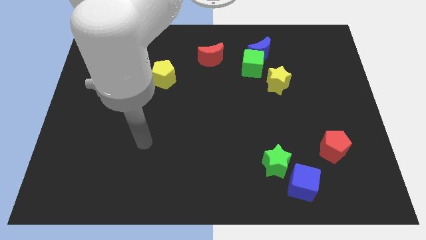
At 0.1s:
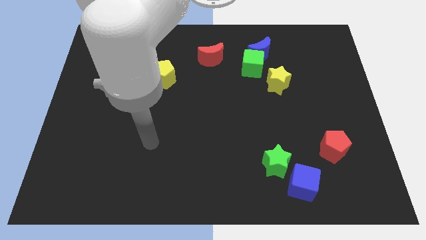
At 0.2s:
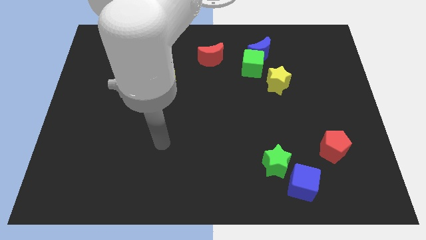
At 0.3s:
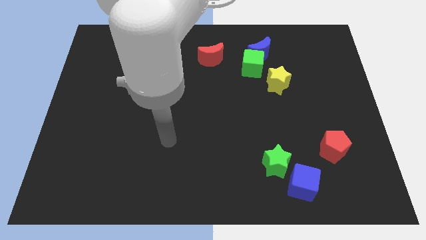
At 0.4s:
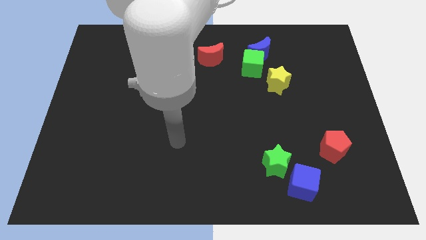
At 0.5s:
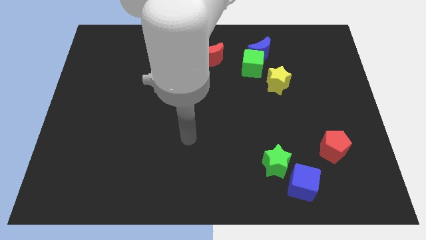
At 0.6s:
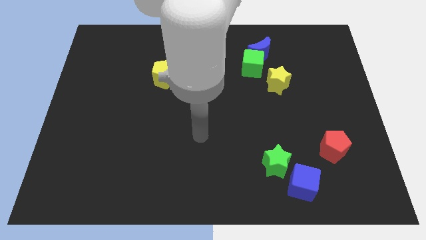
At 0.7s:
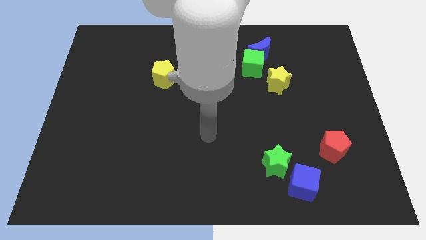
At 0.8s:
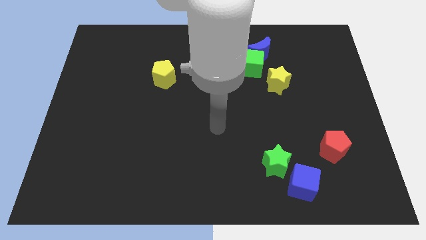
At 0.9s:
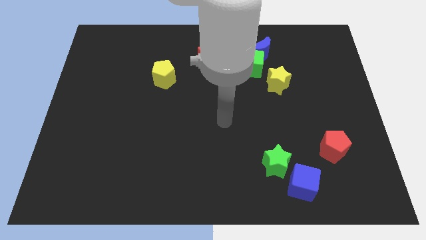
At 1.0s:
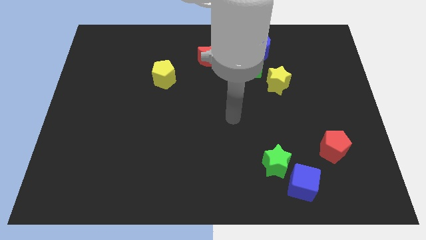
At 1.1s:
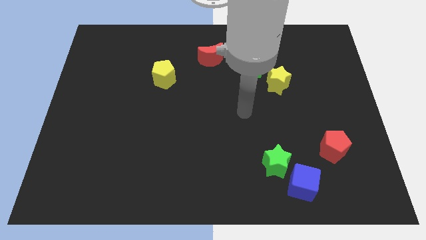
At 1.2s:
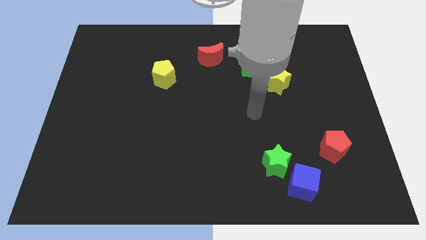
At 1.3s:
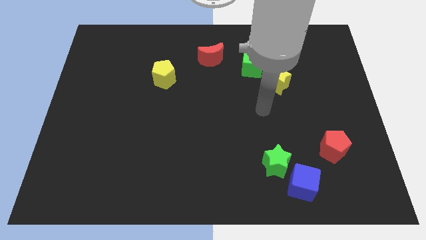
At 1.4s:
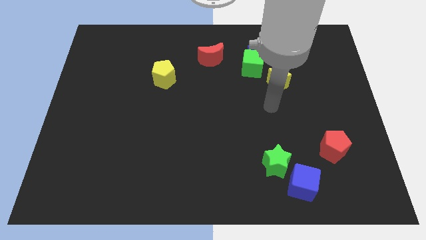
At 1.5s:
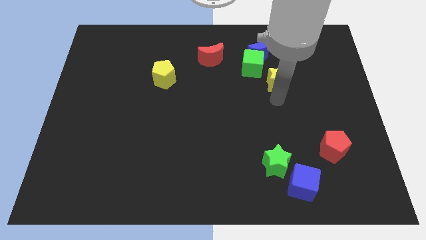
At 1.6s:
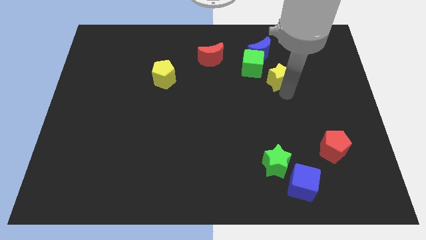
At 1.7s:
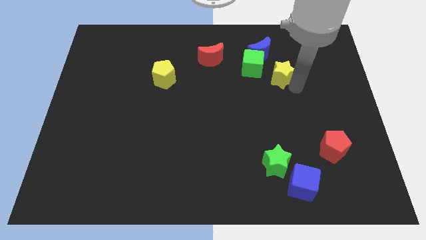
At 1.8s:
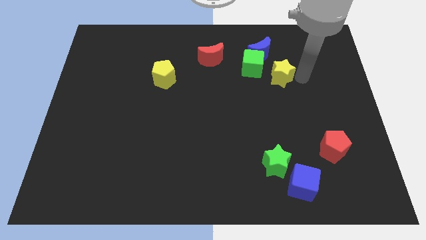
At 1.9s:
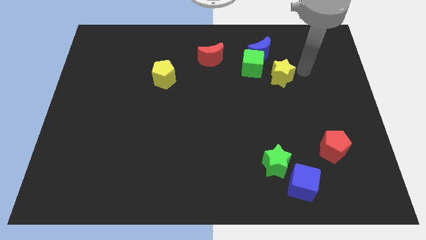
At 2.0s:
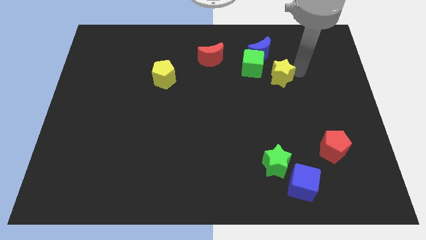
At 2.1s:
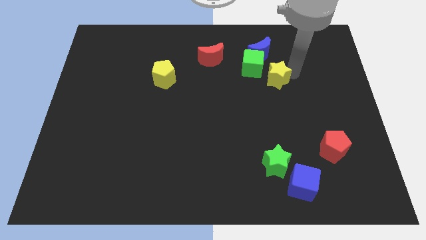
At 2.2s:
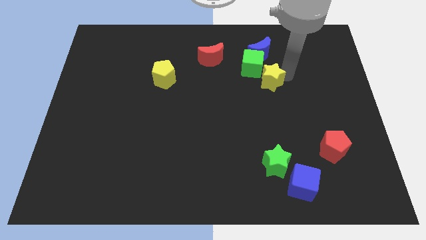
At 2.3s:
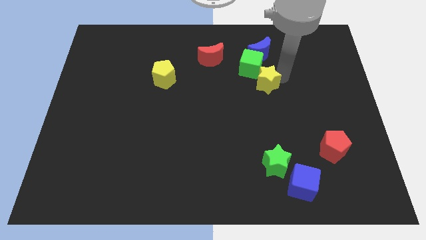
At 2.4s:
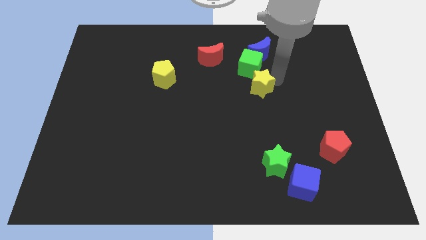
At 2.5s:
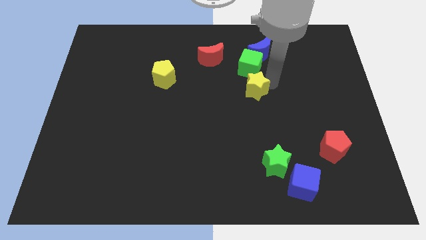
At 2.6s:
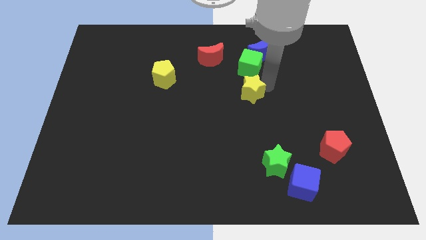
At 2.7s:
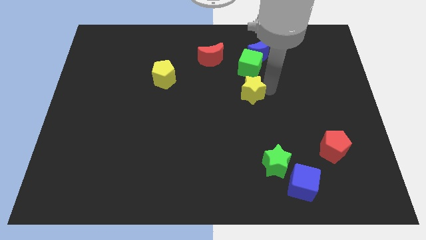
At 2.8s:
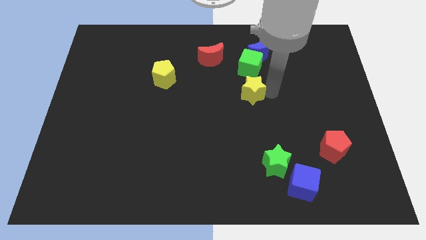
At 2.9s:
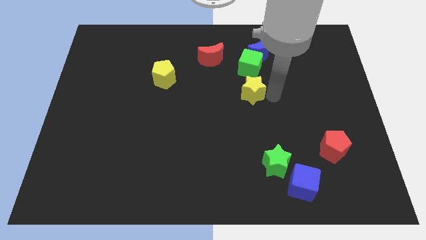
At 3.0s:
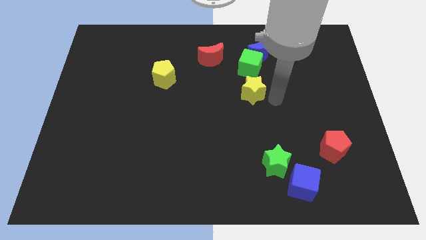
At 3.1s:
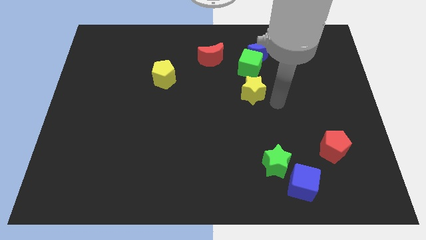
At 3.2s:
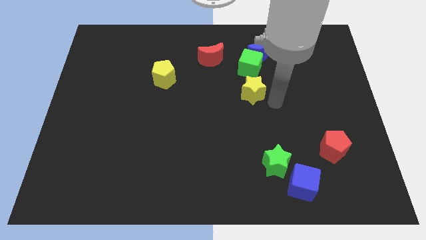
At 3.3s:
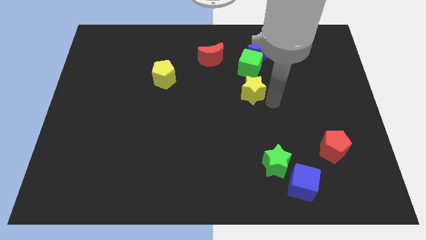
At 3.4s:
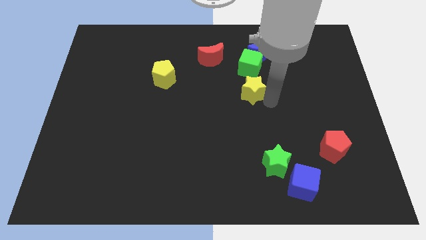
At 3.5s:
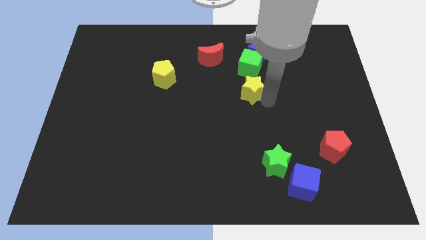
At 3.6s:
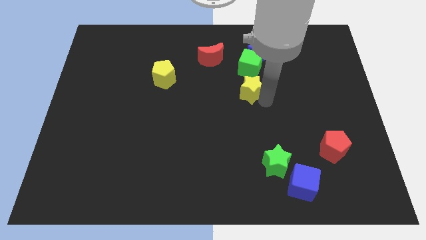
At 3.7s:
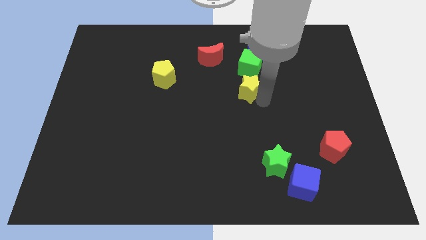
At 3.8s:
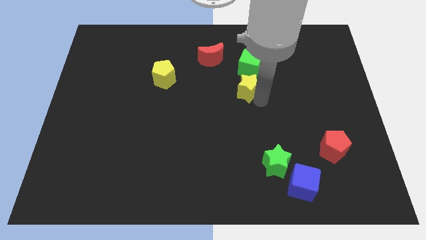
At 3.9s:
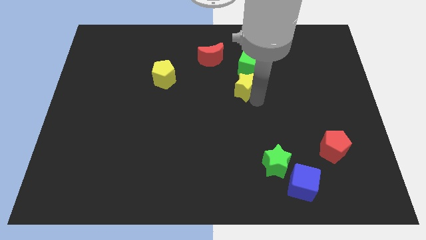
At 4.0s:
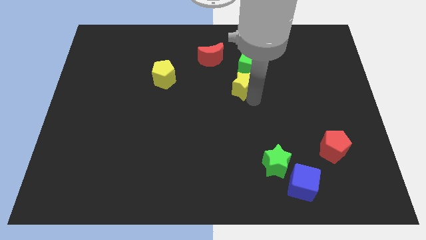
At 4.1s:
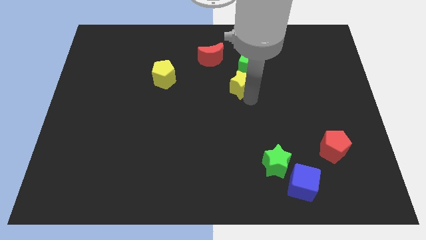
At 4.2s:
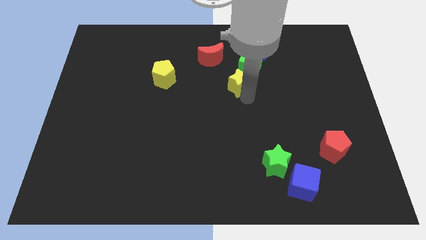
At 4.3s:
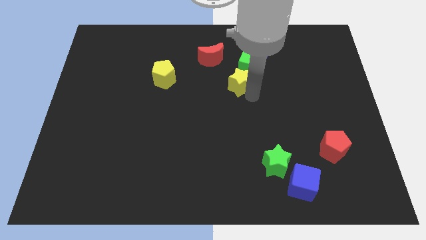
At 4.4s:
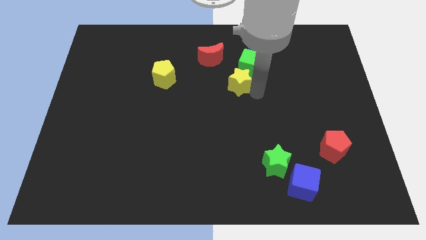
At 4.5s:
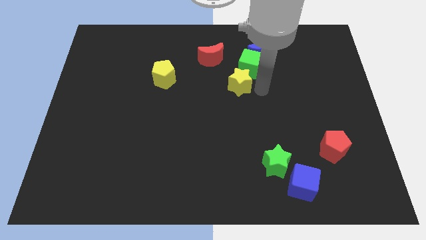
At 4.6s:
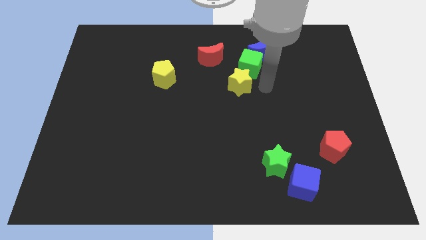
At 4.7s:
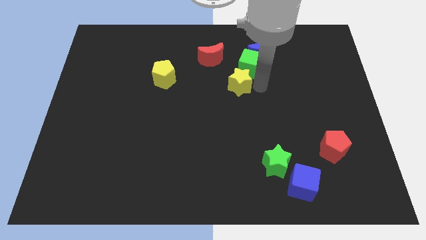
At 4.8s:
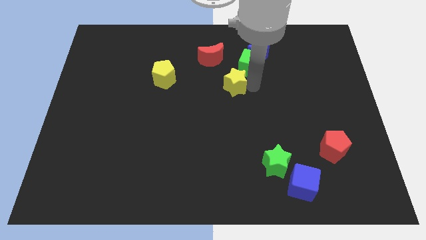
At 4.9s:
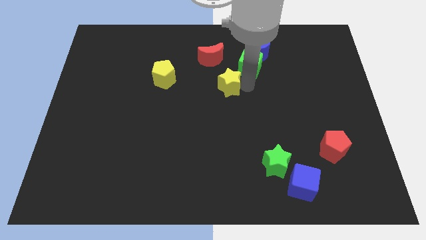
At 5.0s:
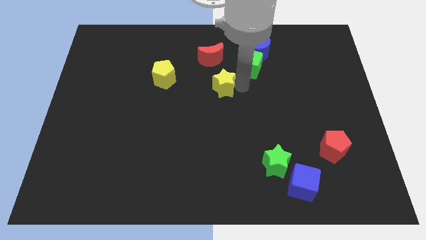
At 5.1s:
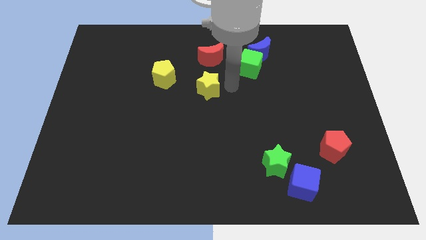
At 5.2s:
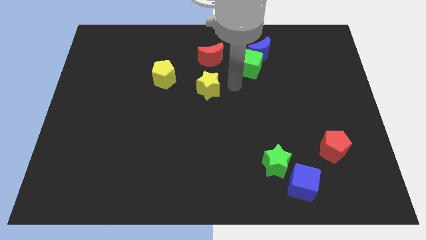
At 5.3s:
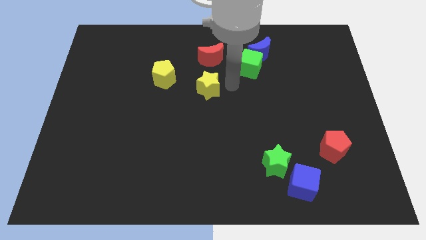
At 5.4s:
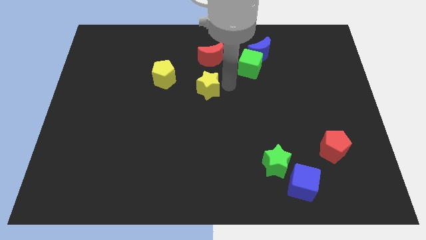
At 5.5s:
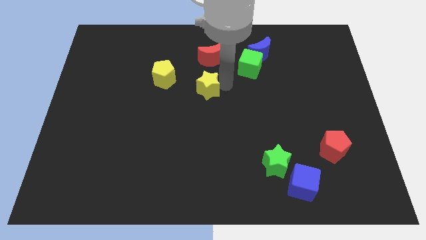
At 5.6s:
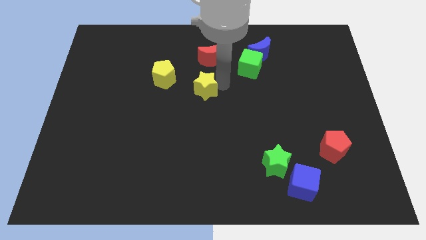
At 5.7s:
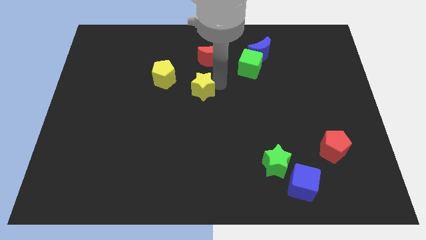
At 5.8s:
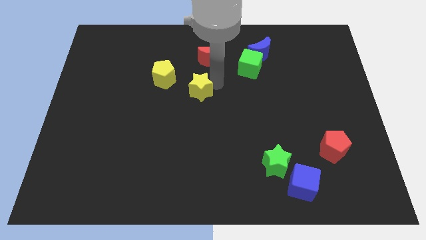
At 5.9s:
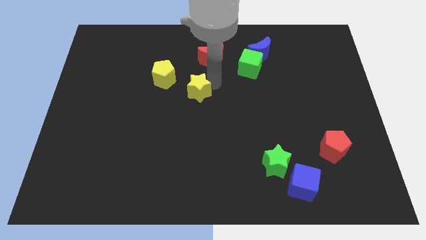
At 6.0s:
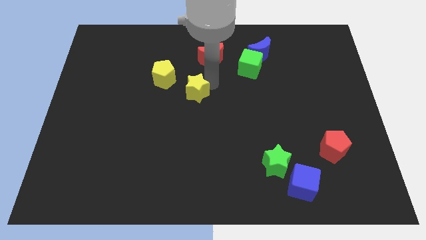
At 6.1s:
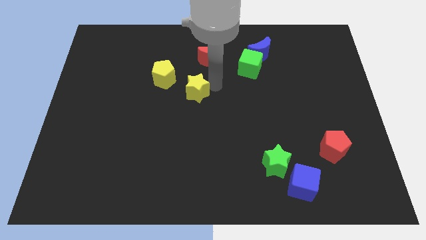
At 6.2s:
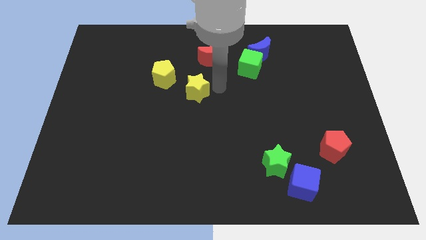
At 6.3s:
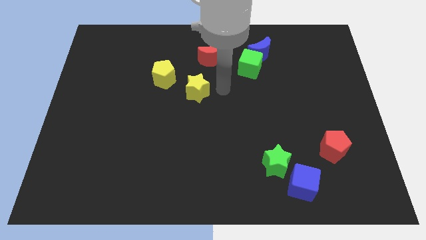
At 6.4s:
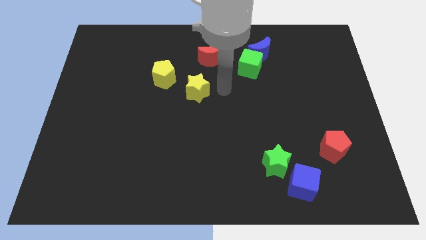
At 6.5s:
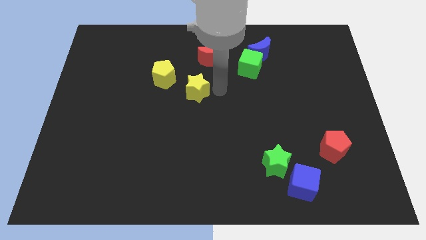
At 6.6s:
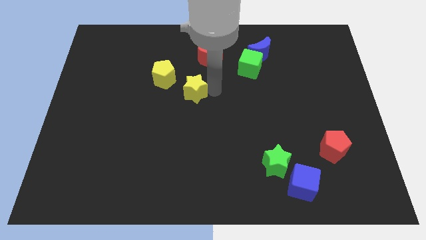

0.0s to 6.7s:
slide the yellow star left

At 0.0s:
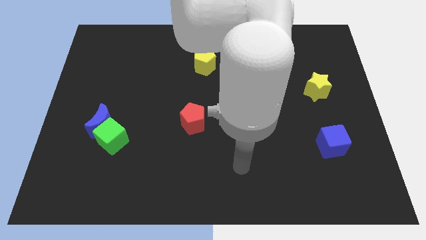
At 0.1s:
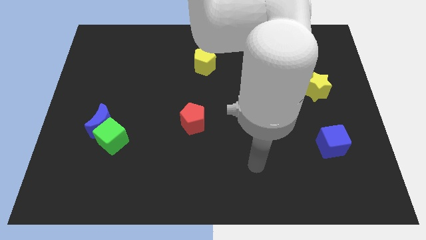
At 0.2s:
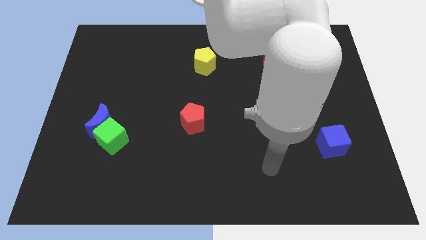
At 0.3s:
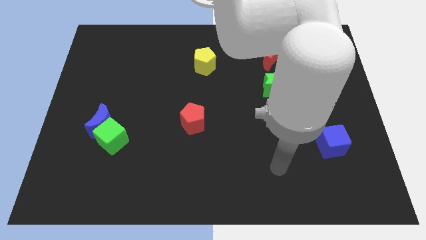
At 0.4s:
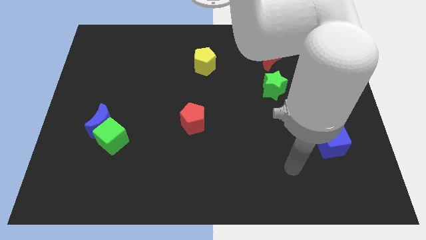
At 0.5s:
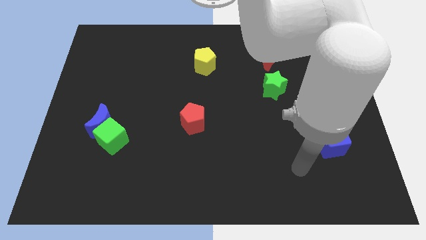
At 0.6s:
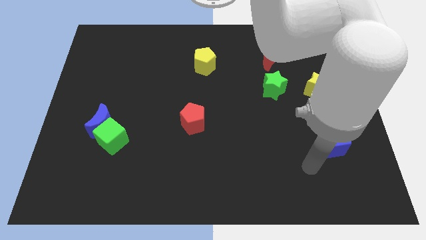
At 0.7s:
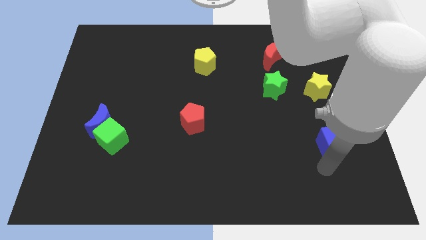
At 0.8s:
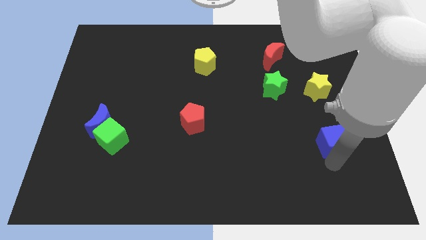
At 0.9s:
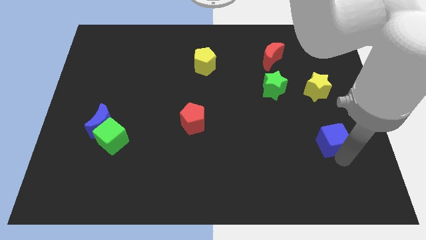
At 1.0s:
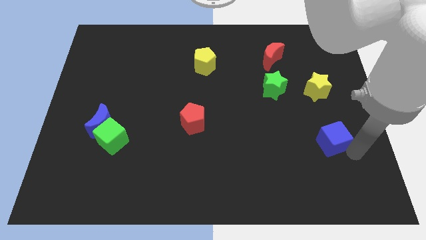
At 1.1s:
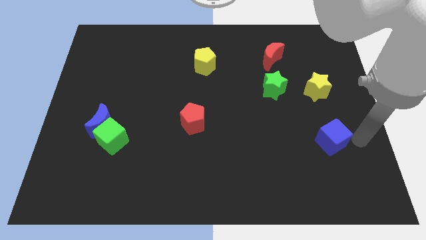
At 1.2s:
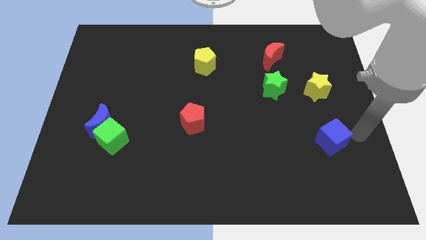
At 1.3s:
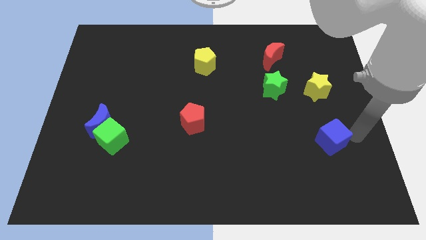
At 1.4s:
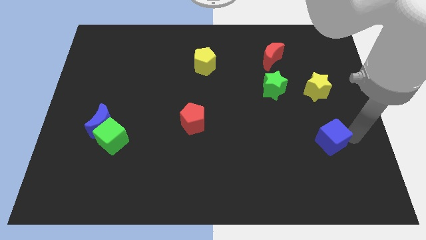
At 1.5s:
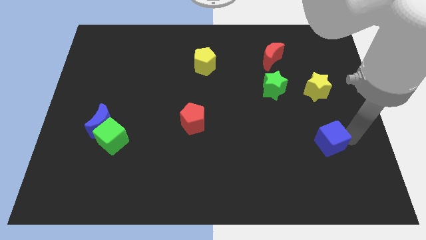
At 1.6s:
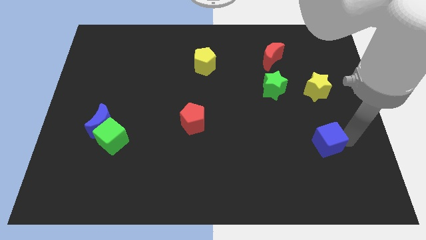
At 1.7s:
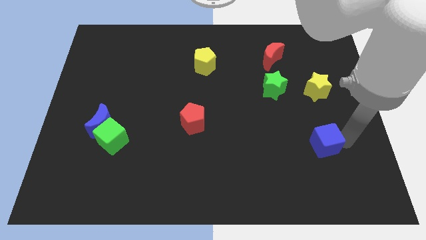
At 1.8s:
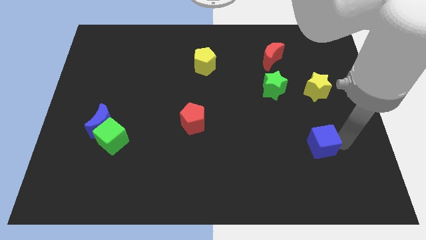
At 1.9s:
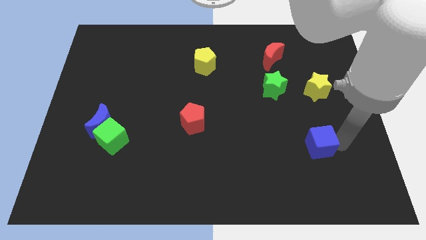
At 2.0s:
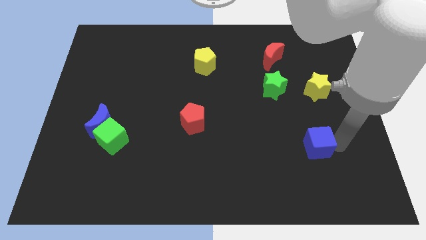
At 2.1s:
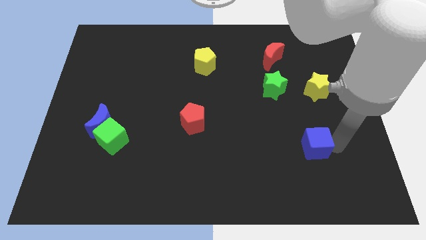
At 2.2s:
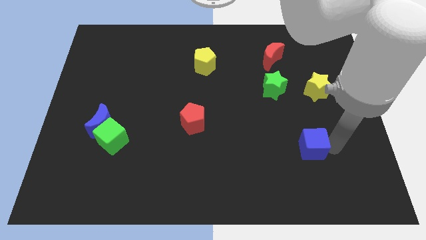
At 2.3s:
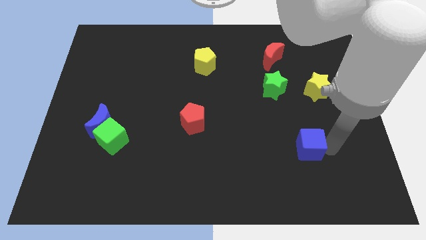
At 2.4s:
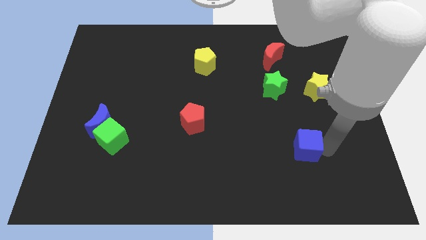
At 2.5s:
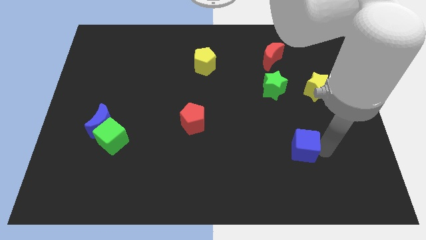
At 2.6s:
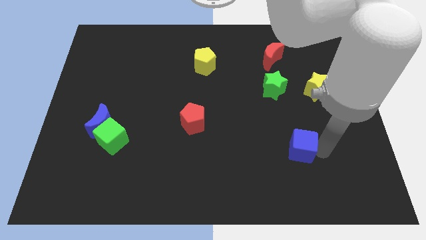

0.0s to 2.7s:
push the blue cube left a bit
